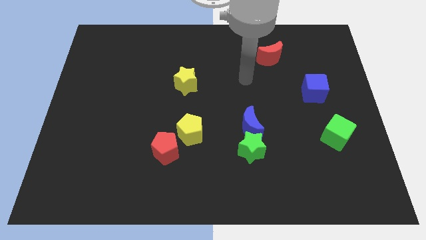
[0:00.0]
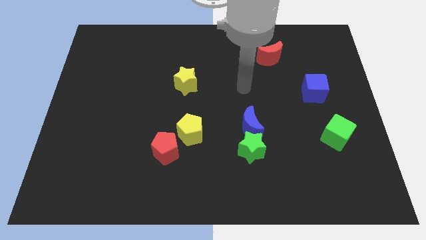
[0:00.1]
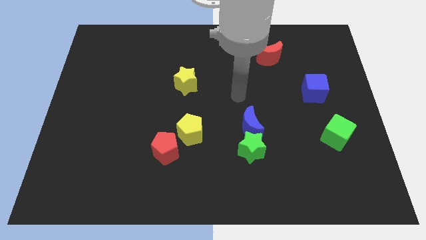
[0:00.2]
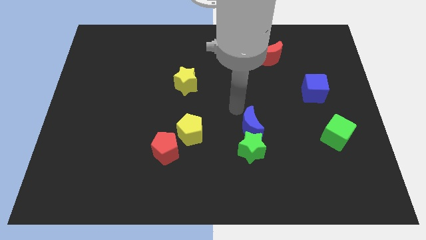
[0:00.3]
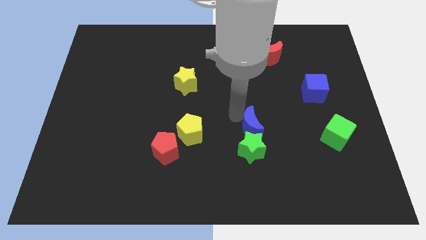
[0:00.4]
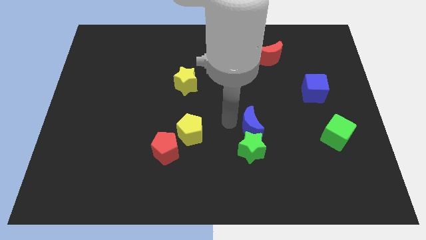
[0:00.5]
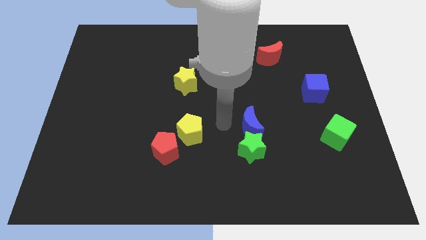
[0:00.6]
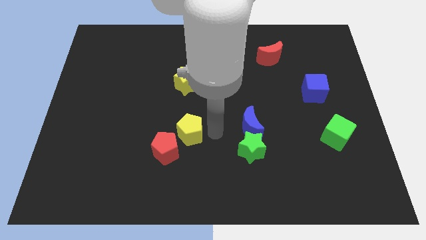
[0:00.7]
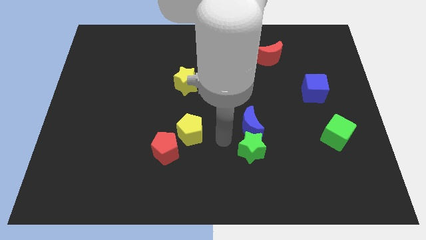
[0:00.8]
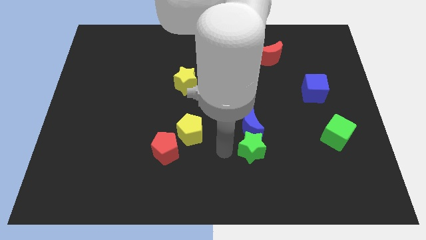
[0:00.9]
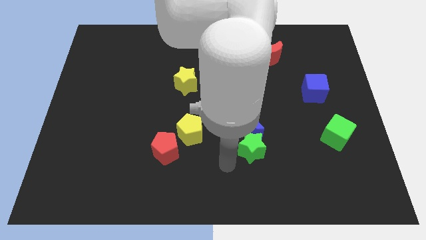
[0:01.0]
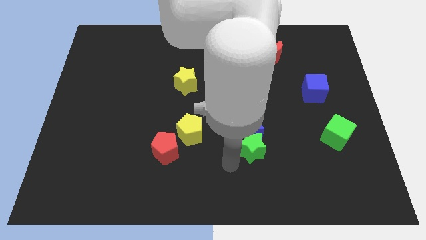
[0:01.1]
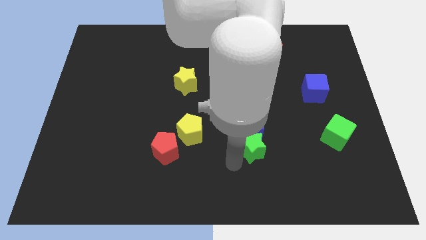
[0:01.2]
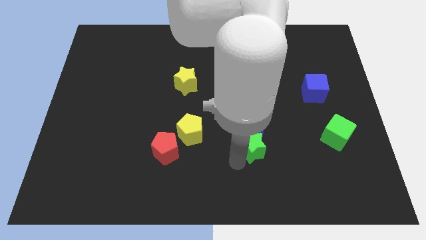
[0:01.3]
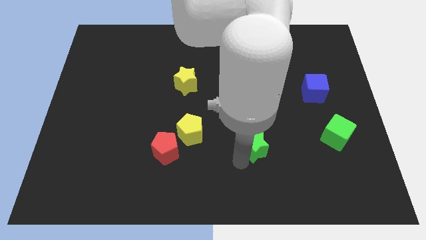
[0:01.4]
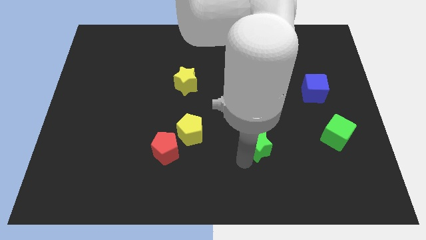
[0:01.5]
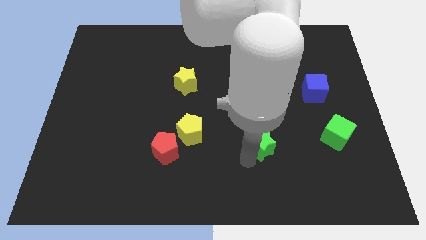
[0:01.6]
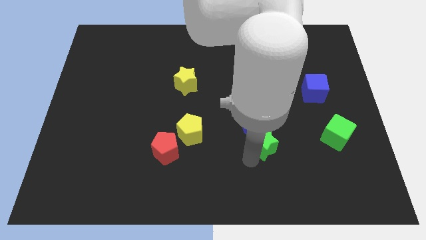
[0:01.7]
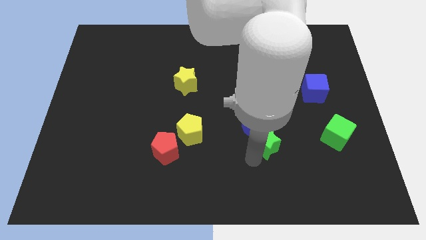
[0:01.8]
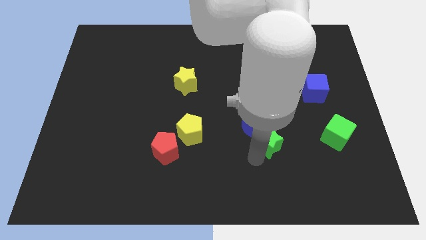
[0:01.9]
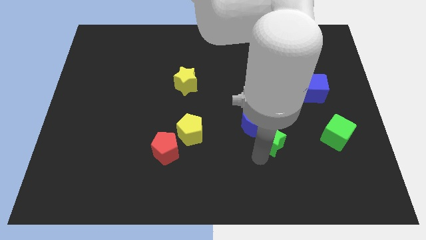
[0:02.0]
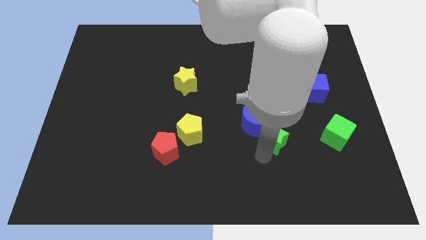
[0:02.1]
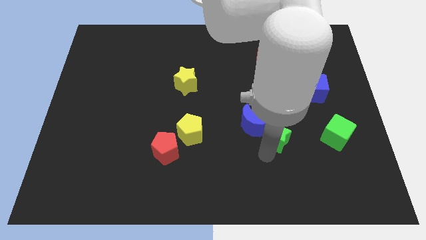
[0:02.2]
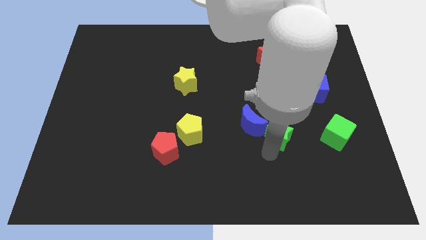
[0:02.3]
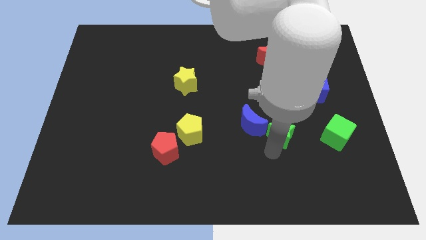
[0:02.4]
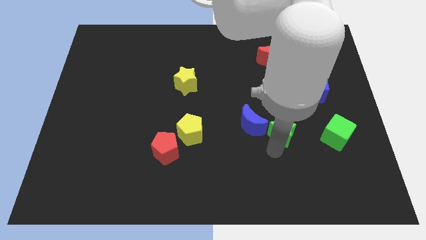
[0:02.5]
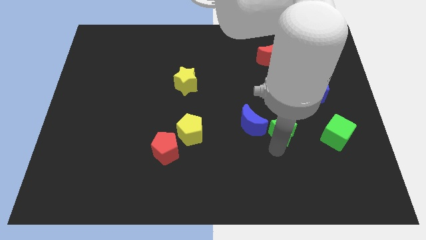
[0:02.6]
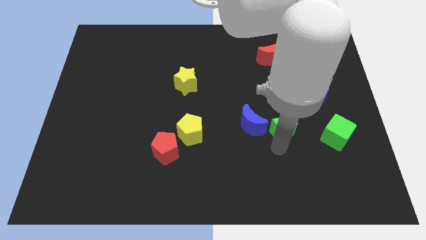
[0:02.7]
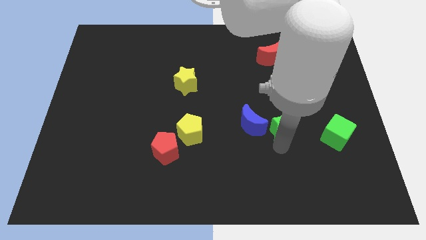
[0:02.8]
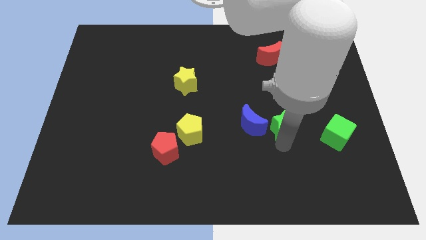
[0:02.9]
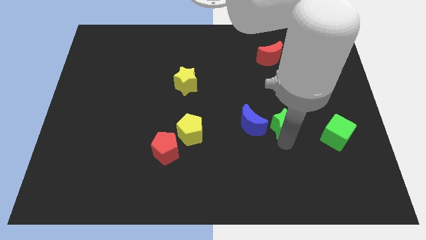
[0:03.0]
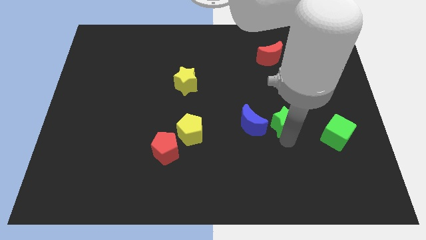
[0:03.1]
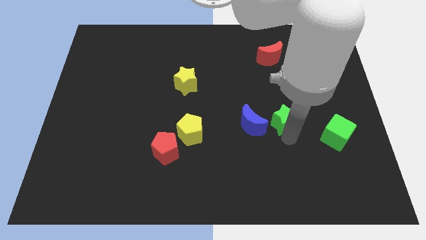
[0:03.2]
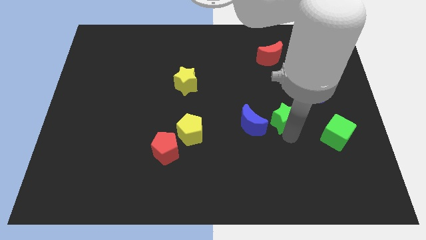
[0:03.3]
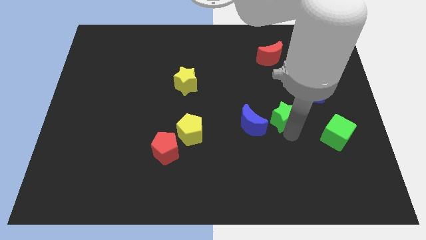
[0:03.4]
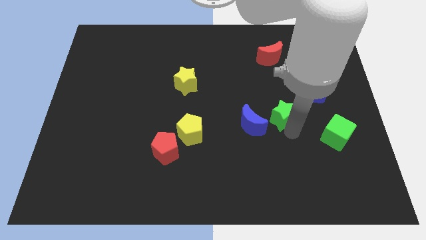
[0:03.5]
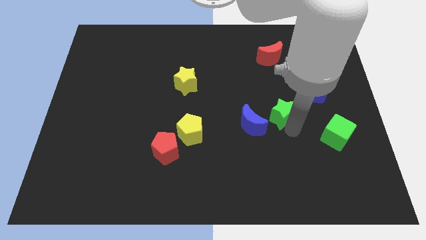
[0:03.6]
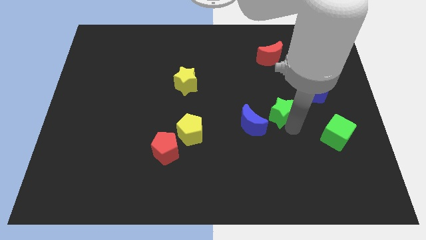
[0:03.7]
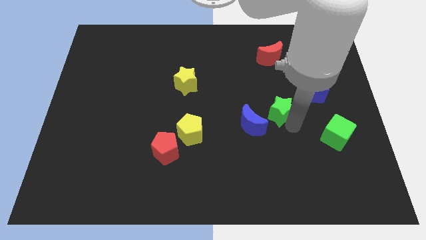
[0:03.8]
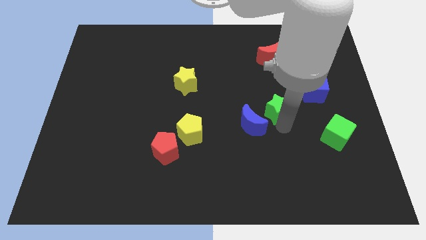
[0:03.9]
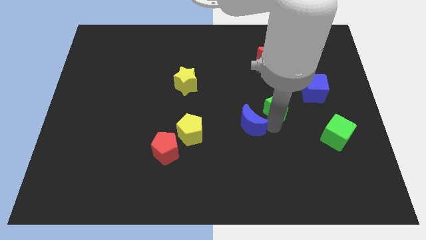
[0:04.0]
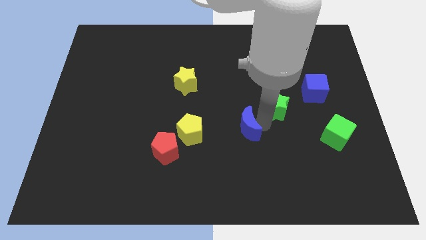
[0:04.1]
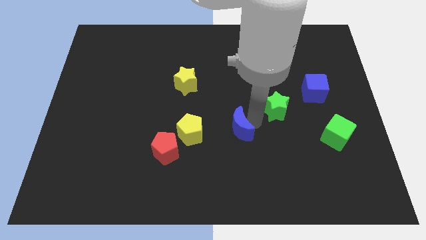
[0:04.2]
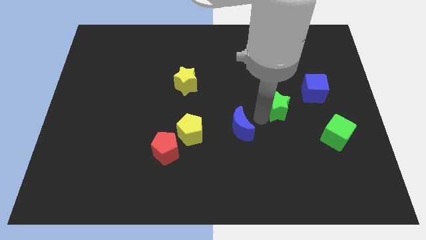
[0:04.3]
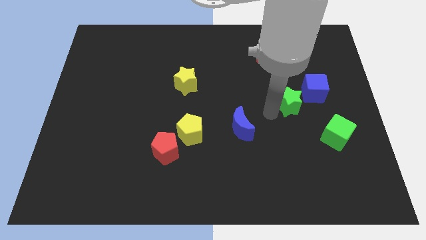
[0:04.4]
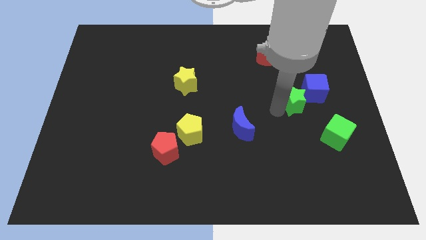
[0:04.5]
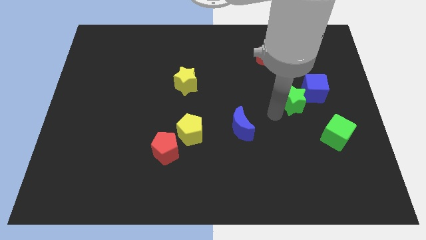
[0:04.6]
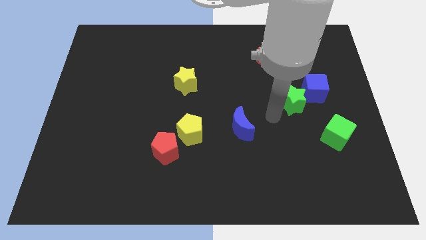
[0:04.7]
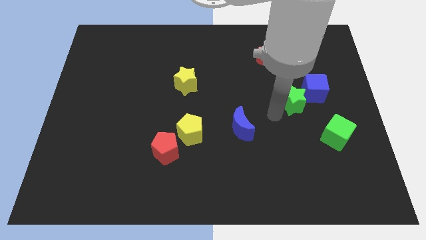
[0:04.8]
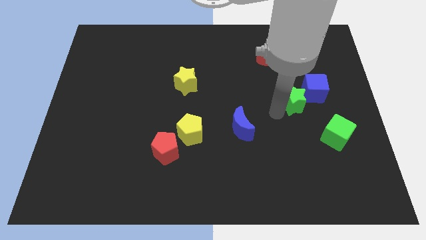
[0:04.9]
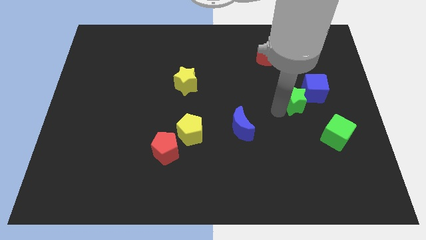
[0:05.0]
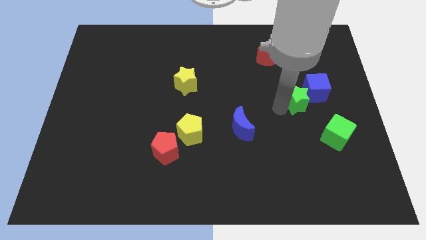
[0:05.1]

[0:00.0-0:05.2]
move the green star to the blue cube

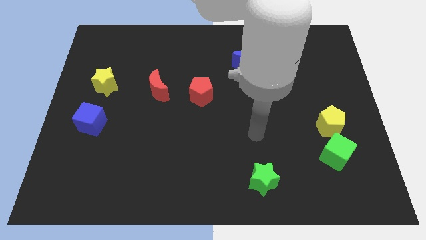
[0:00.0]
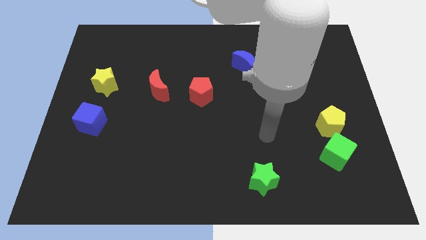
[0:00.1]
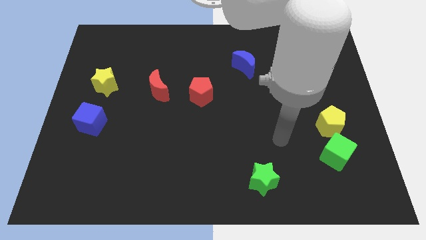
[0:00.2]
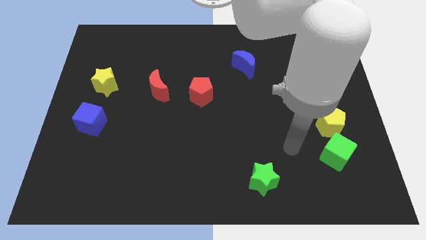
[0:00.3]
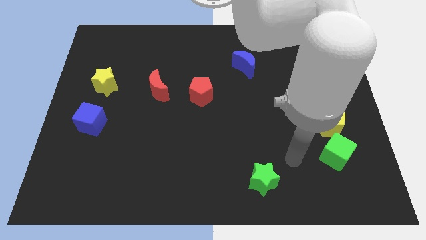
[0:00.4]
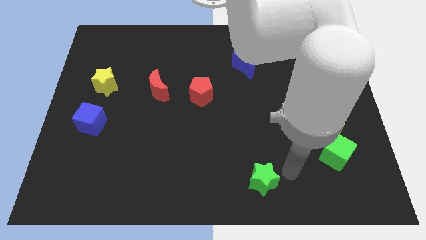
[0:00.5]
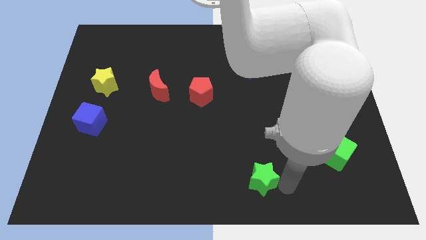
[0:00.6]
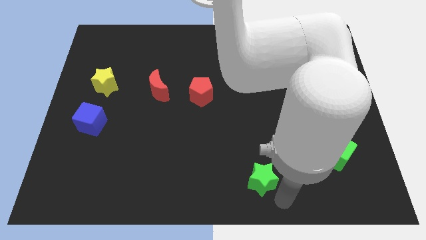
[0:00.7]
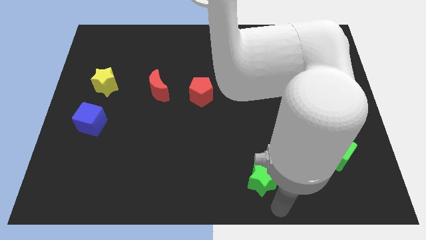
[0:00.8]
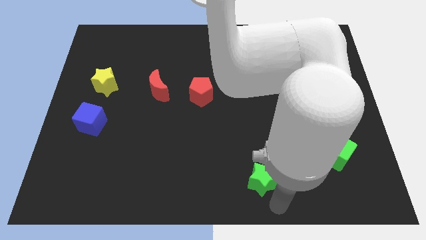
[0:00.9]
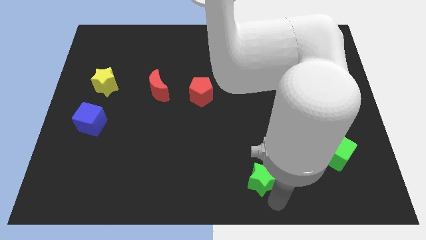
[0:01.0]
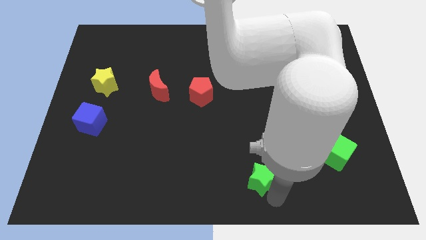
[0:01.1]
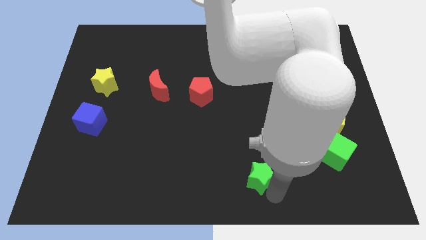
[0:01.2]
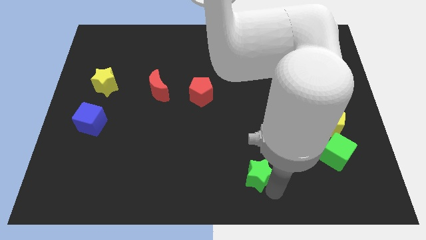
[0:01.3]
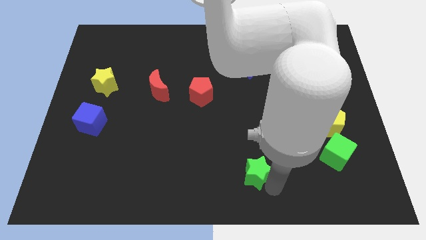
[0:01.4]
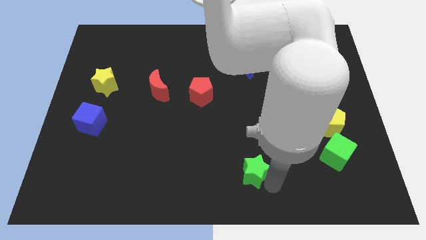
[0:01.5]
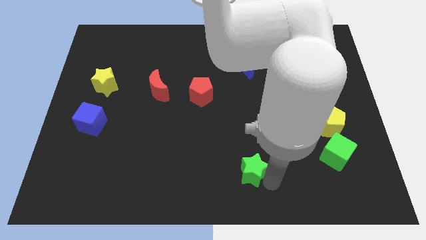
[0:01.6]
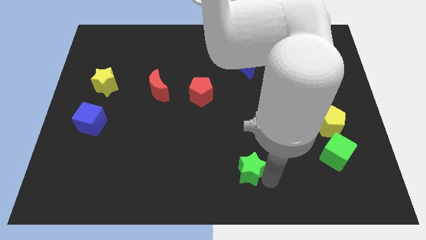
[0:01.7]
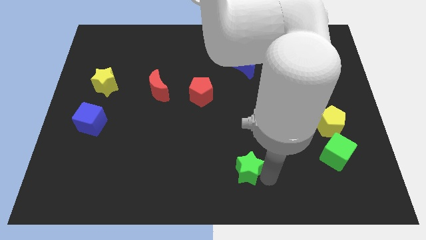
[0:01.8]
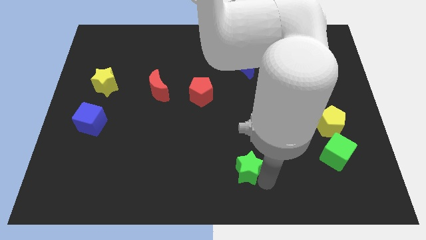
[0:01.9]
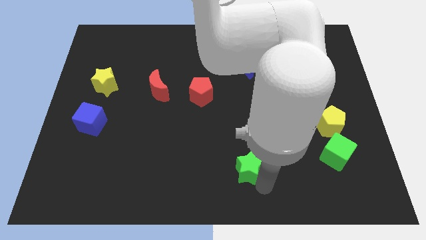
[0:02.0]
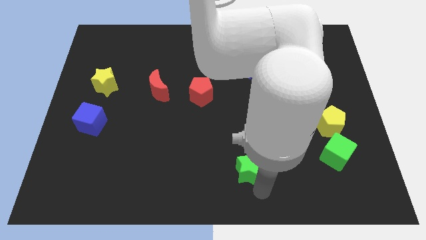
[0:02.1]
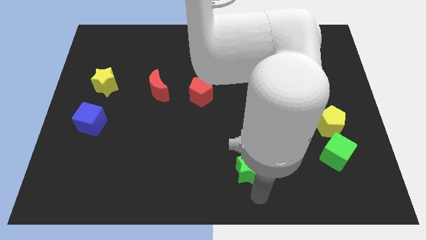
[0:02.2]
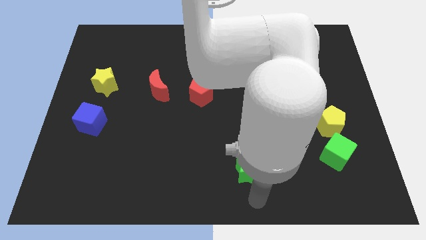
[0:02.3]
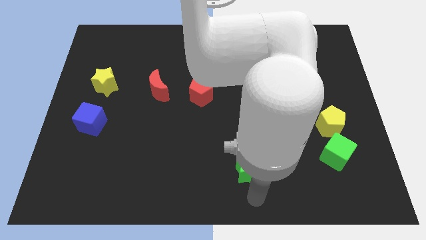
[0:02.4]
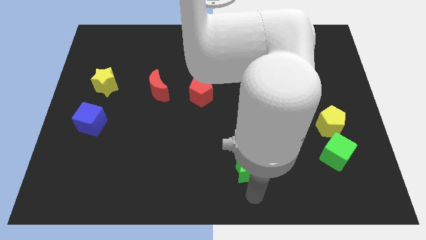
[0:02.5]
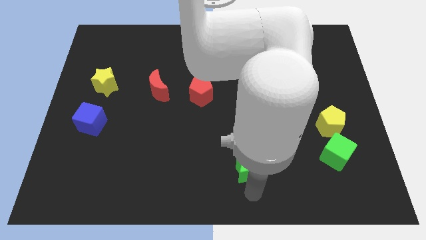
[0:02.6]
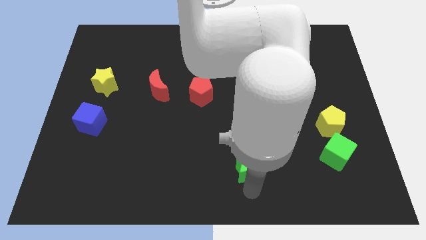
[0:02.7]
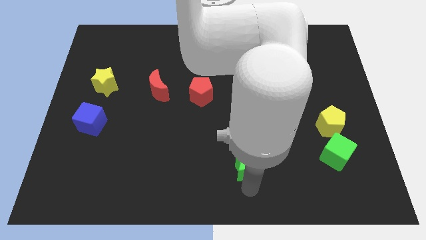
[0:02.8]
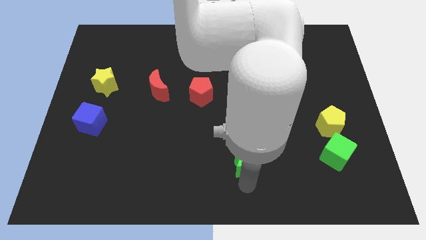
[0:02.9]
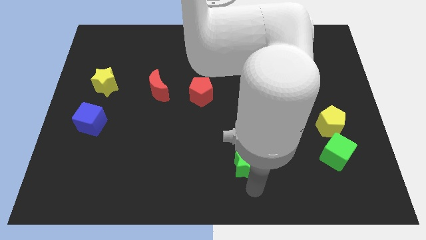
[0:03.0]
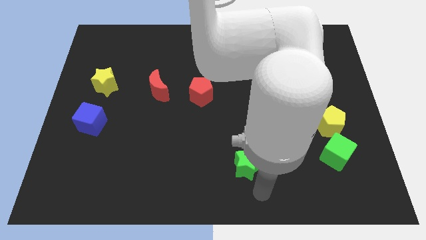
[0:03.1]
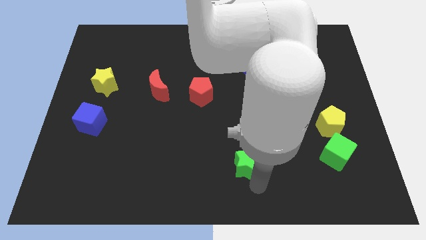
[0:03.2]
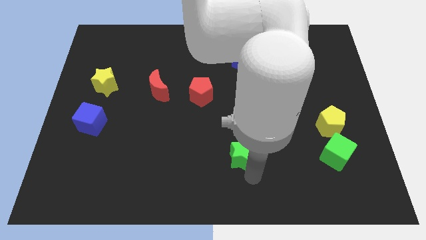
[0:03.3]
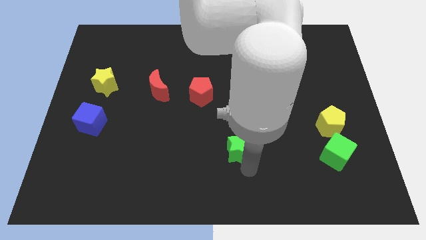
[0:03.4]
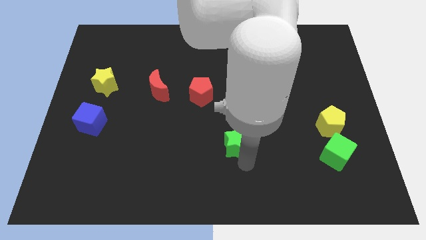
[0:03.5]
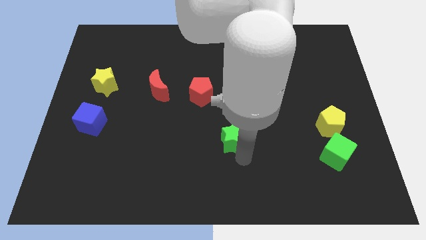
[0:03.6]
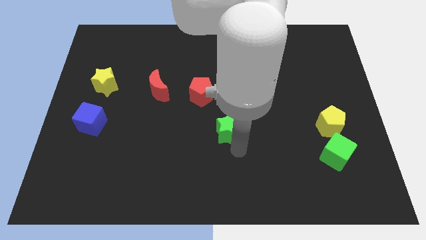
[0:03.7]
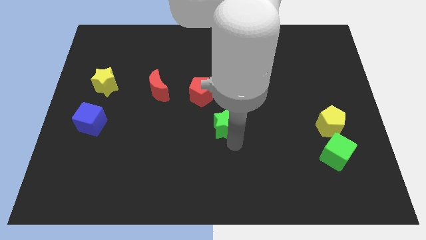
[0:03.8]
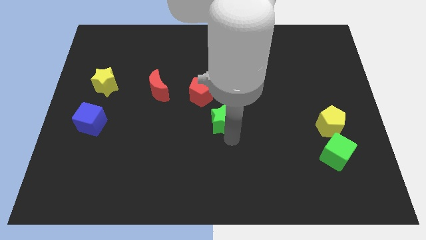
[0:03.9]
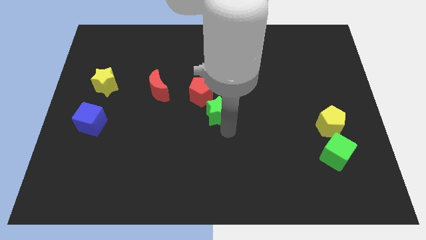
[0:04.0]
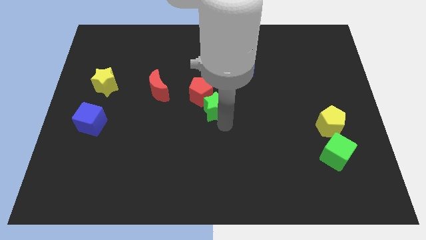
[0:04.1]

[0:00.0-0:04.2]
slide the green star towards the red pentagon
